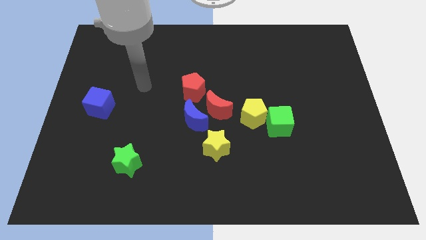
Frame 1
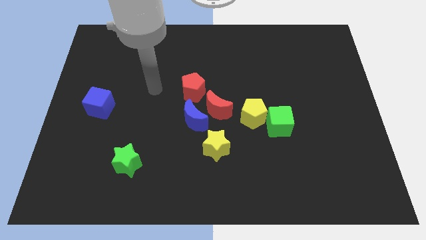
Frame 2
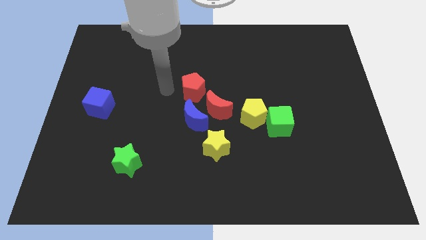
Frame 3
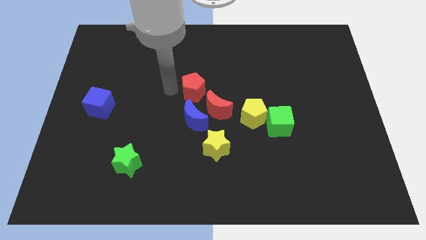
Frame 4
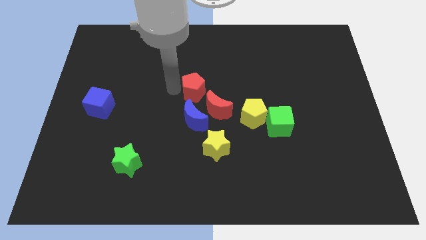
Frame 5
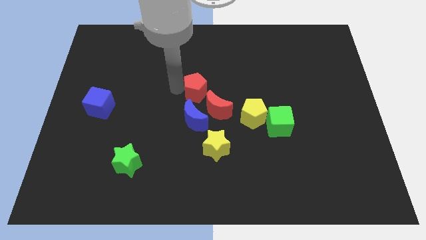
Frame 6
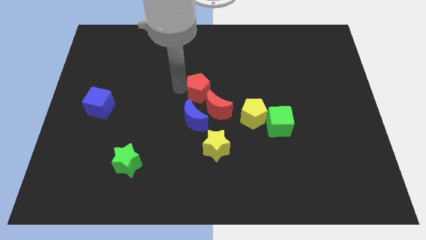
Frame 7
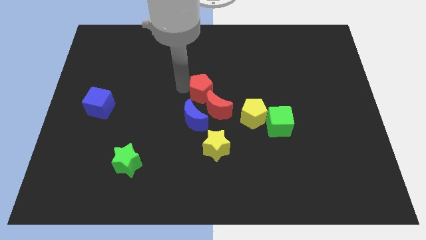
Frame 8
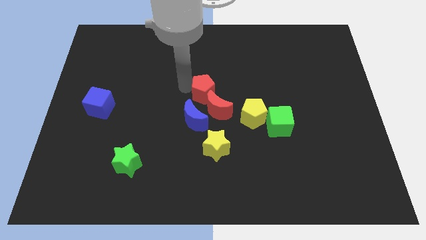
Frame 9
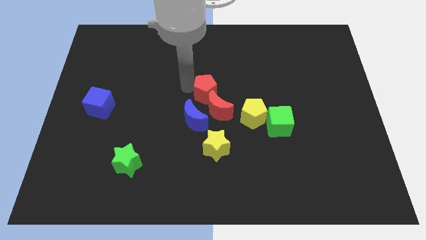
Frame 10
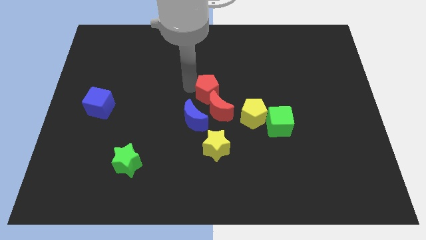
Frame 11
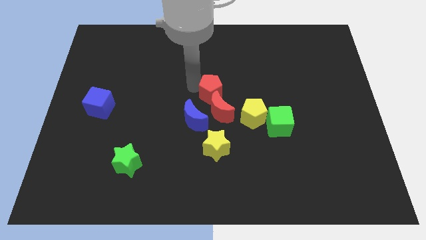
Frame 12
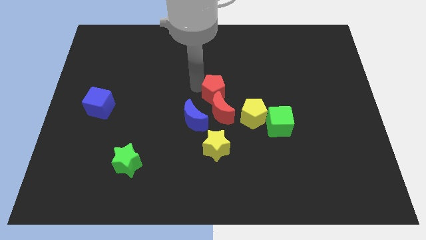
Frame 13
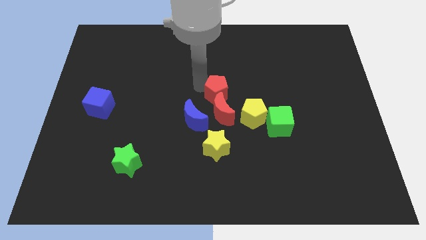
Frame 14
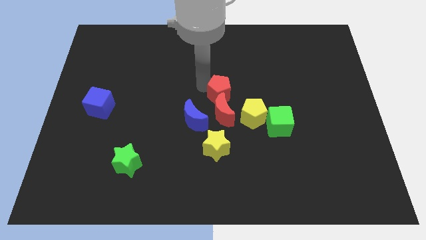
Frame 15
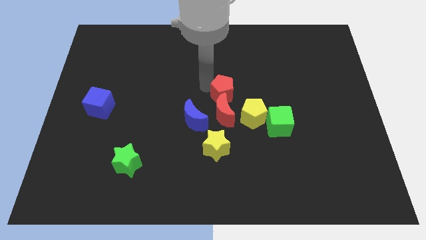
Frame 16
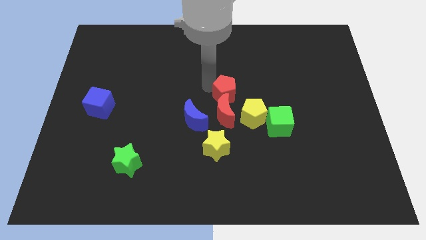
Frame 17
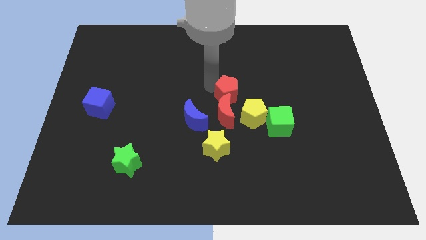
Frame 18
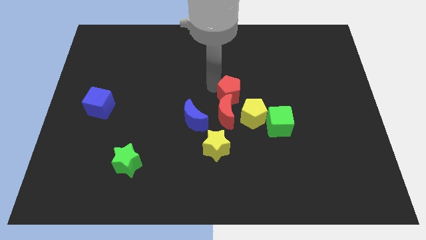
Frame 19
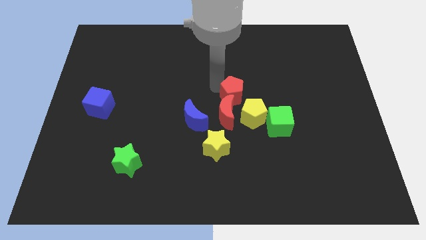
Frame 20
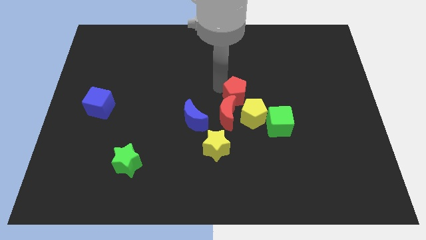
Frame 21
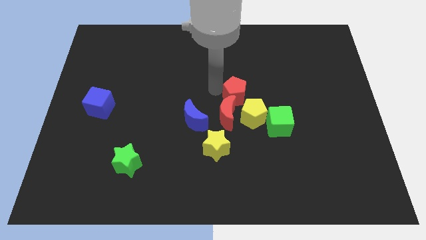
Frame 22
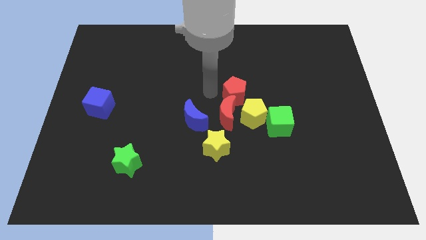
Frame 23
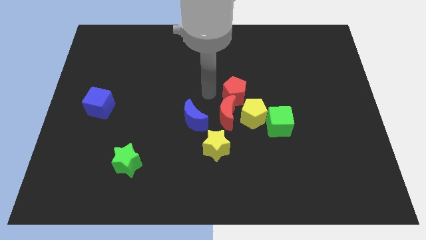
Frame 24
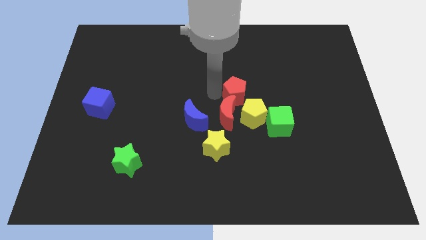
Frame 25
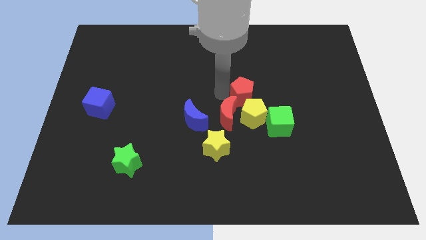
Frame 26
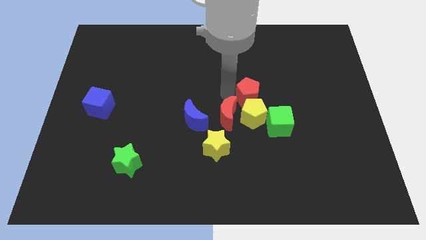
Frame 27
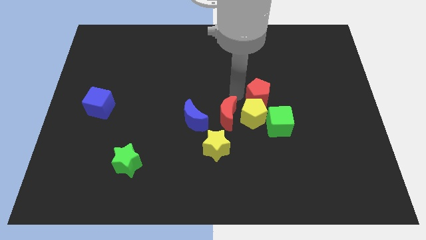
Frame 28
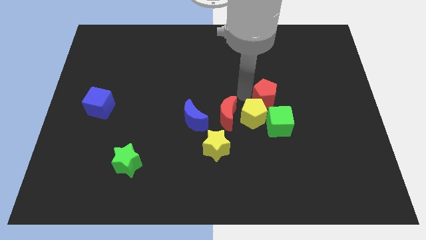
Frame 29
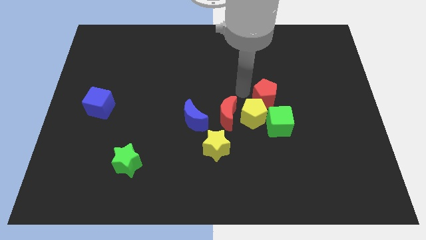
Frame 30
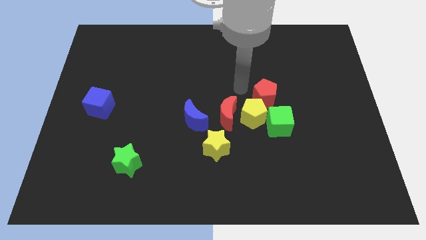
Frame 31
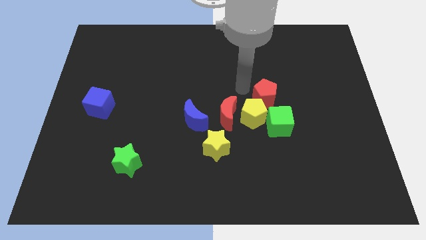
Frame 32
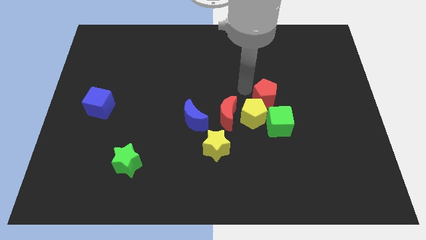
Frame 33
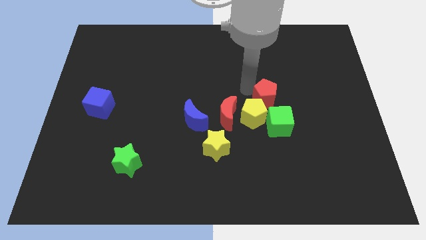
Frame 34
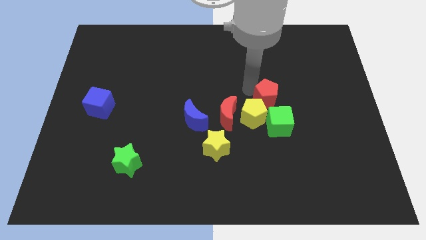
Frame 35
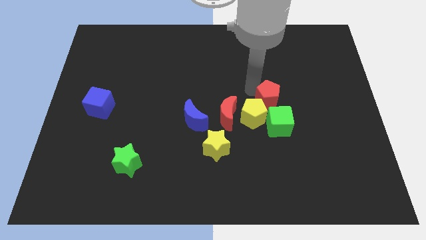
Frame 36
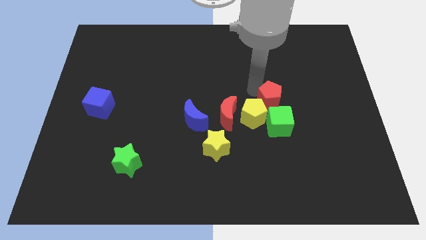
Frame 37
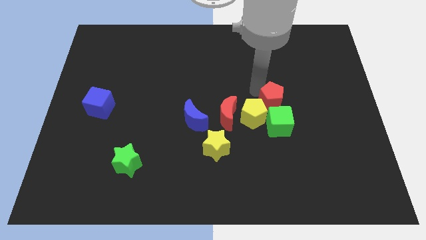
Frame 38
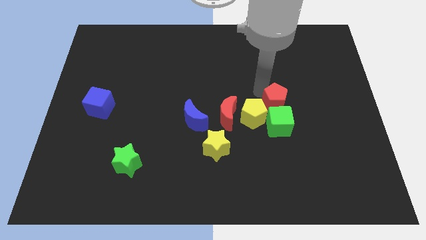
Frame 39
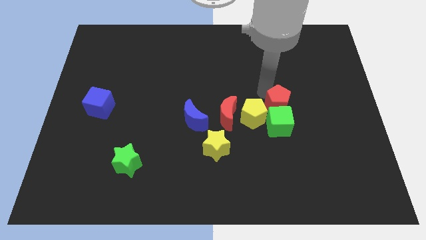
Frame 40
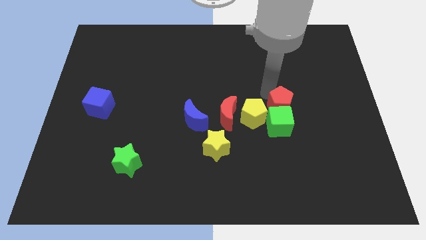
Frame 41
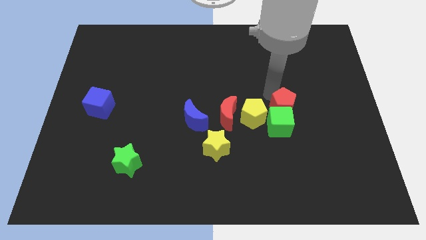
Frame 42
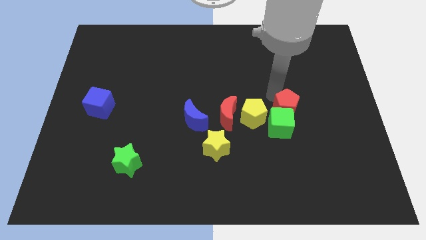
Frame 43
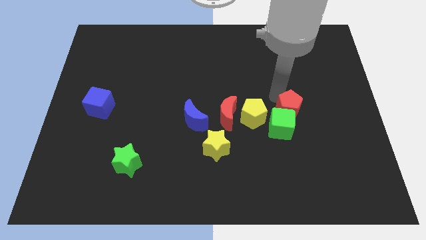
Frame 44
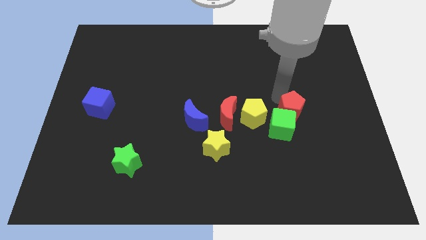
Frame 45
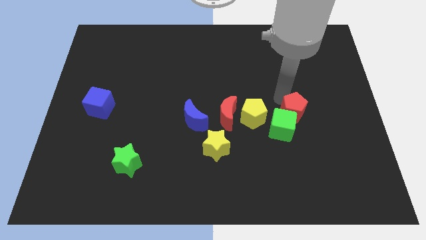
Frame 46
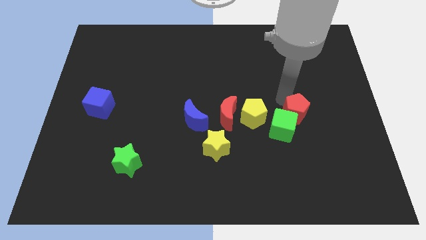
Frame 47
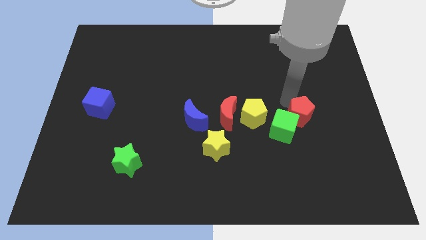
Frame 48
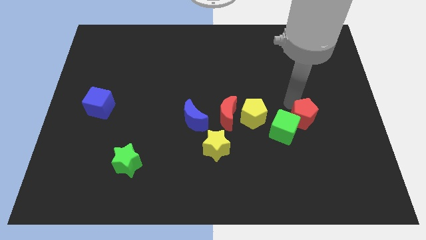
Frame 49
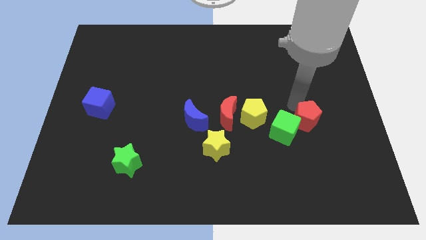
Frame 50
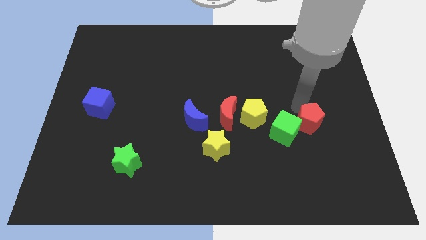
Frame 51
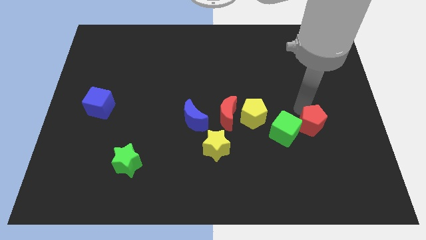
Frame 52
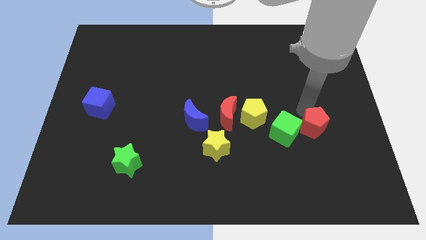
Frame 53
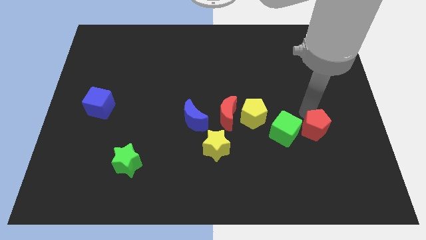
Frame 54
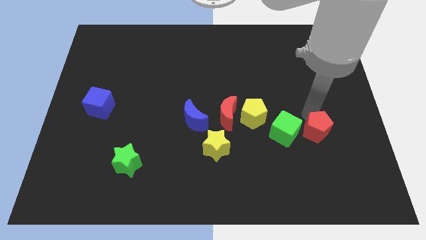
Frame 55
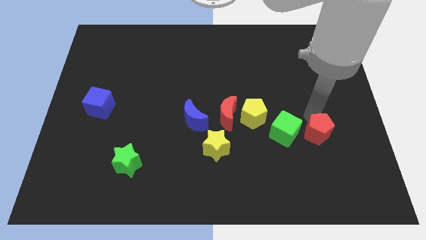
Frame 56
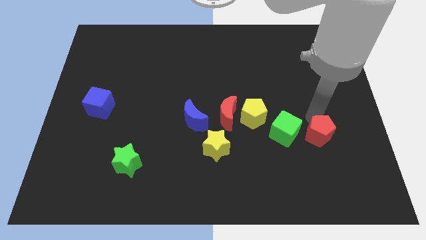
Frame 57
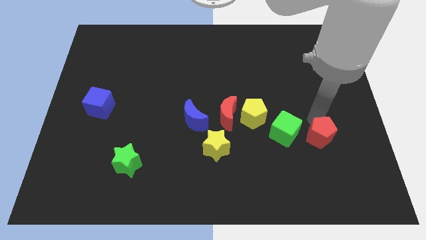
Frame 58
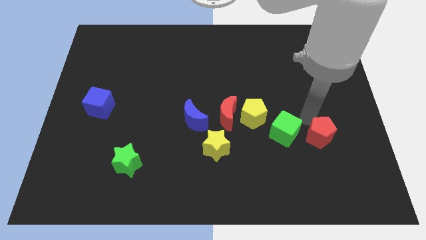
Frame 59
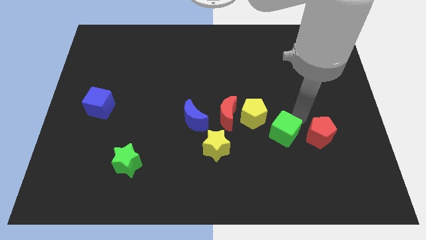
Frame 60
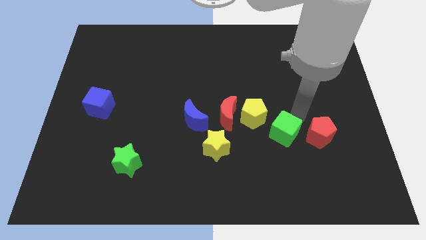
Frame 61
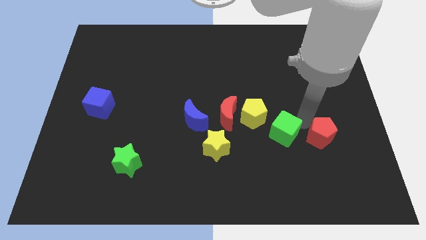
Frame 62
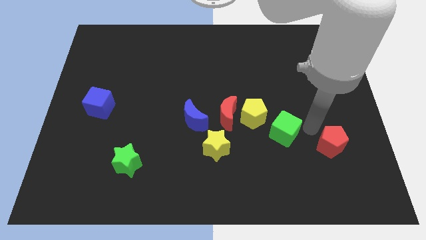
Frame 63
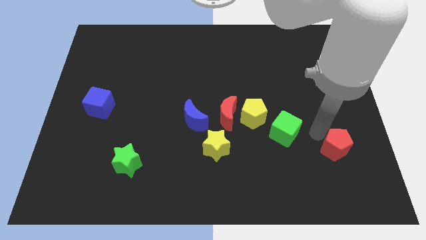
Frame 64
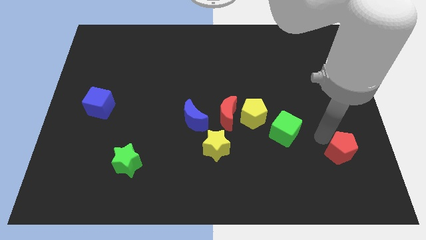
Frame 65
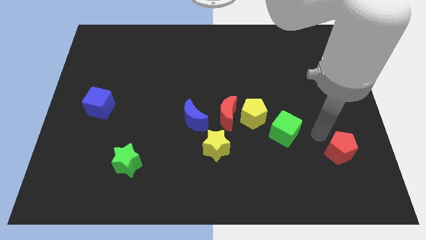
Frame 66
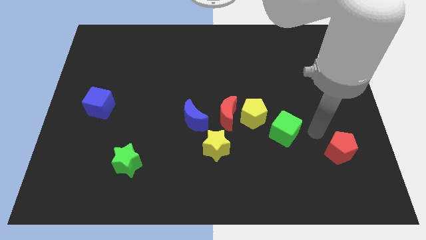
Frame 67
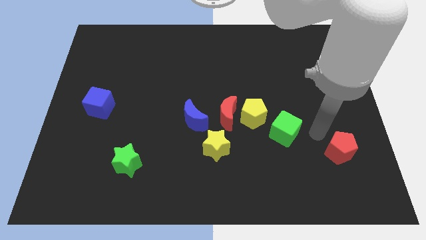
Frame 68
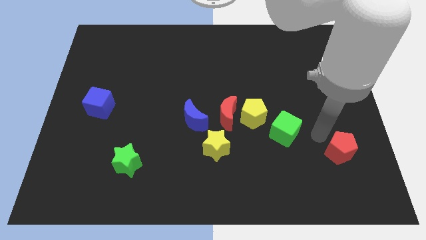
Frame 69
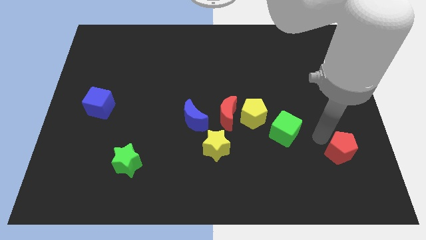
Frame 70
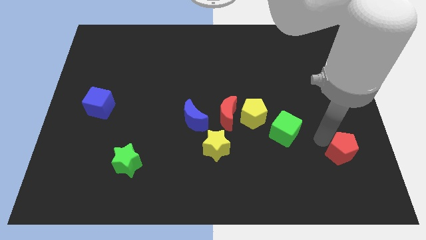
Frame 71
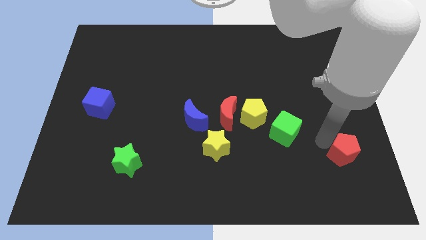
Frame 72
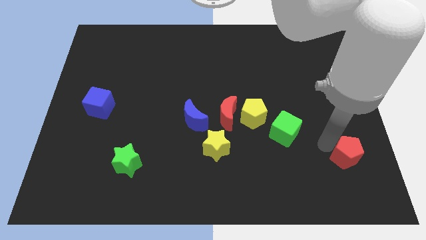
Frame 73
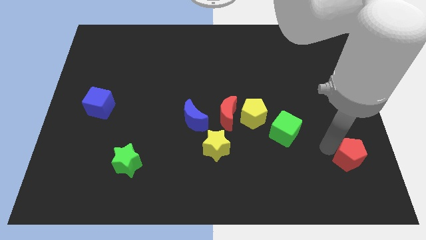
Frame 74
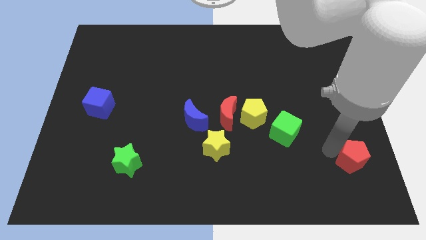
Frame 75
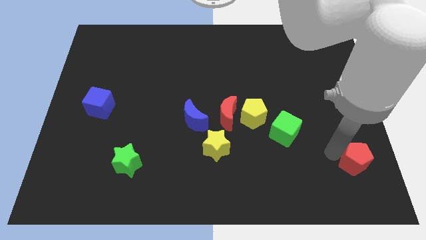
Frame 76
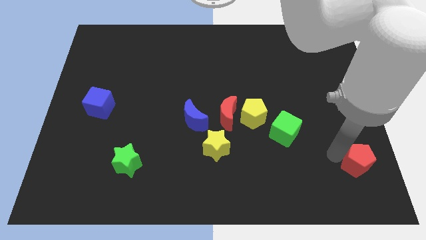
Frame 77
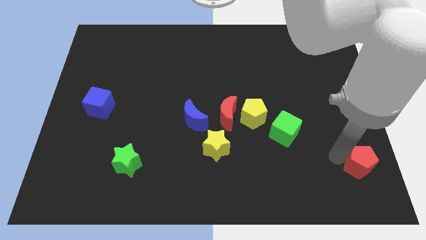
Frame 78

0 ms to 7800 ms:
put the red pentagon to the bottom right corner
